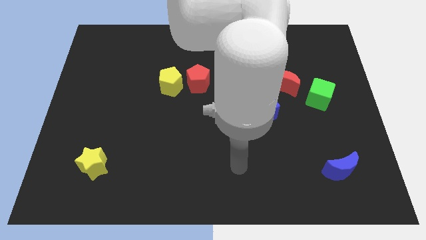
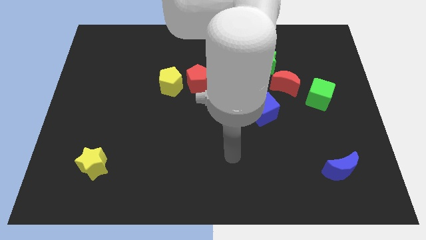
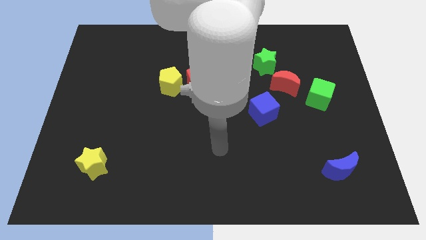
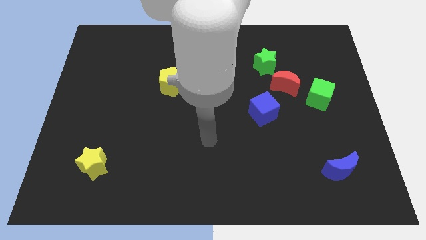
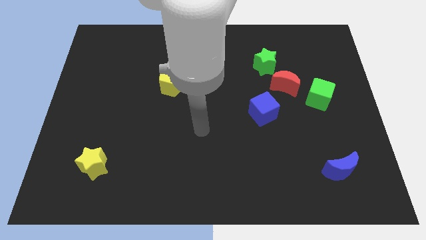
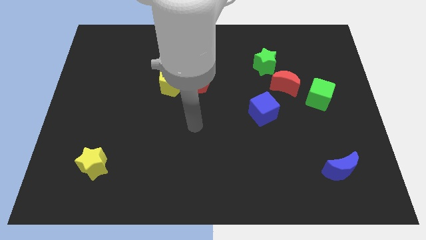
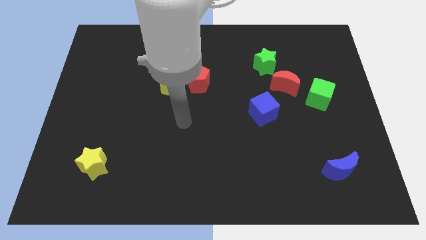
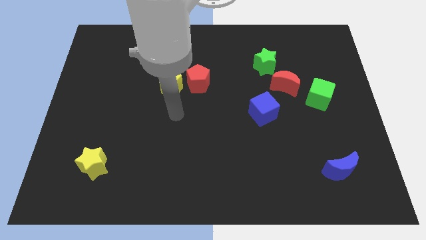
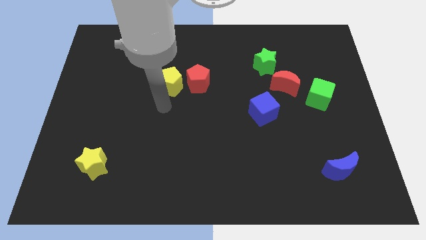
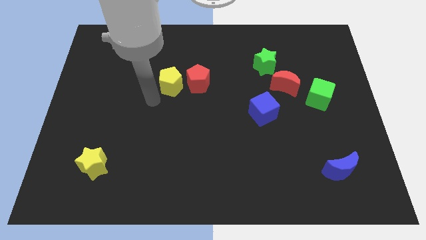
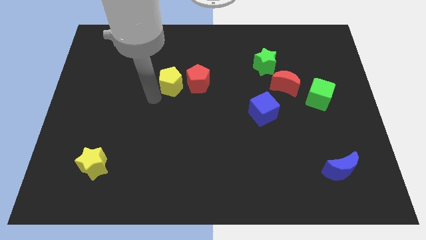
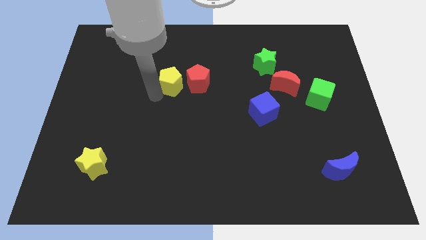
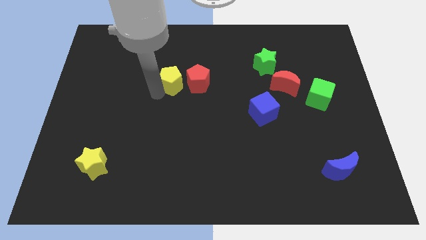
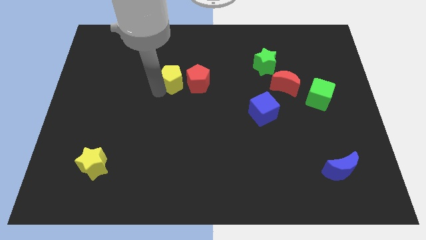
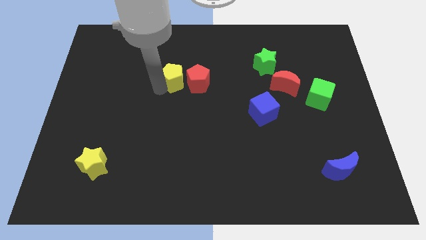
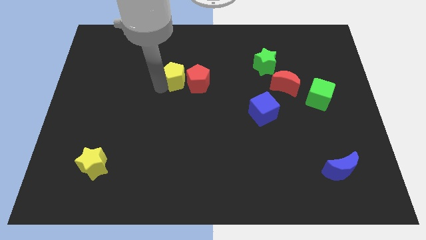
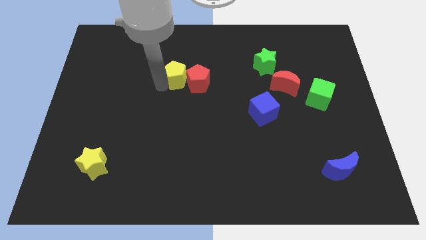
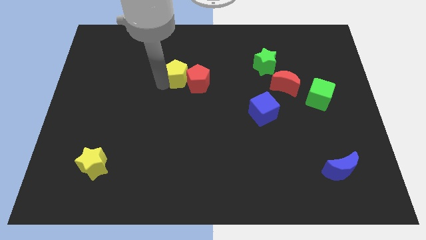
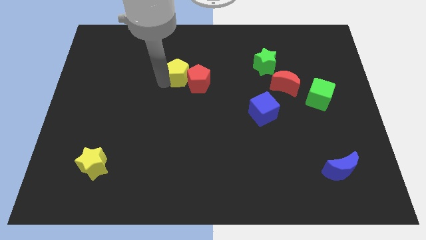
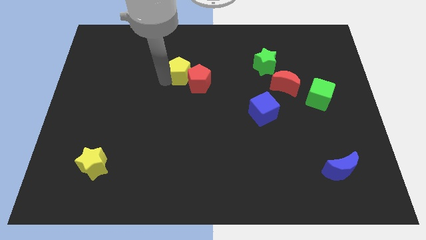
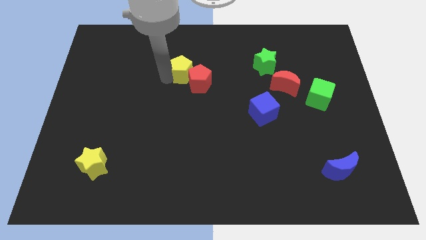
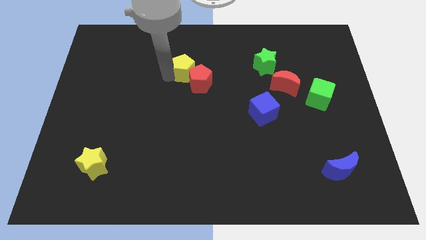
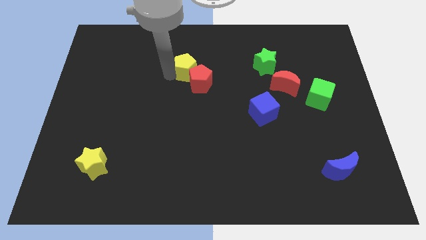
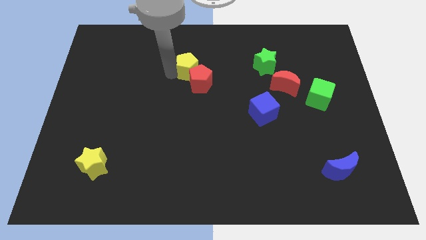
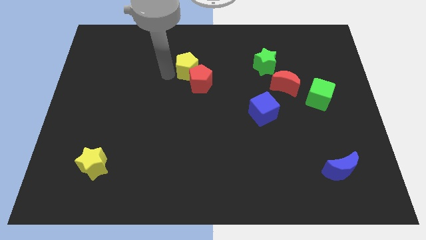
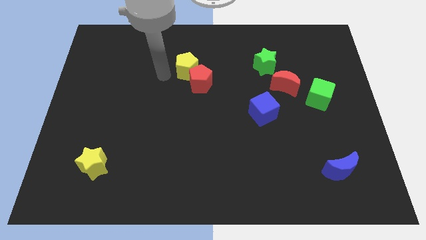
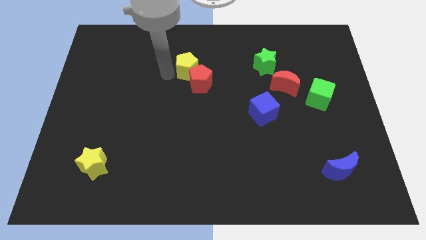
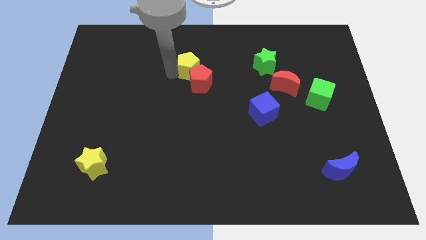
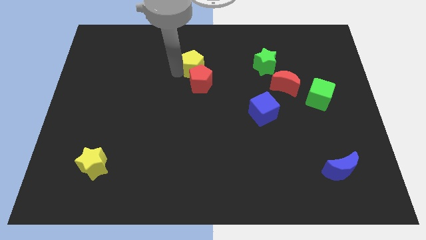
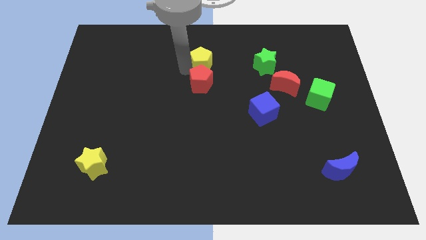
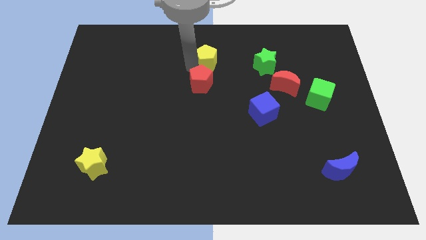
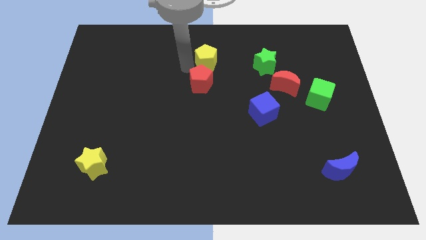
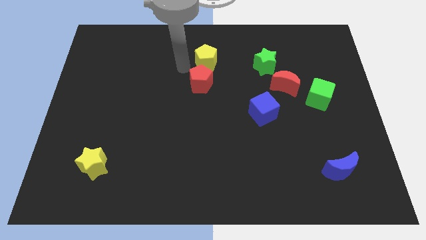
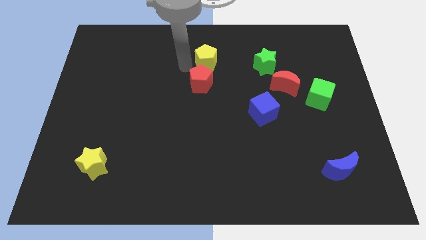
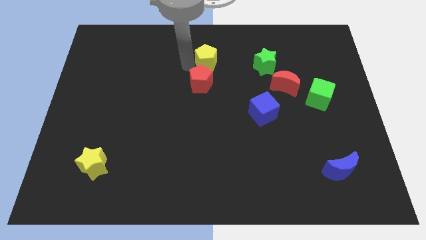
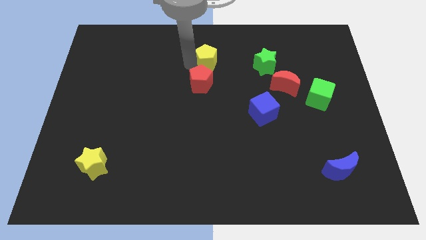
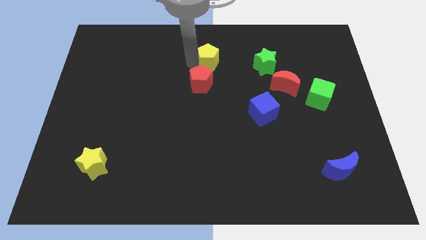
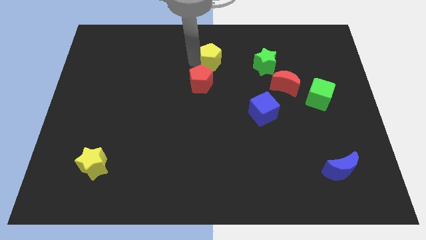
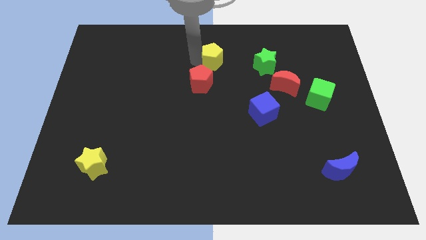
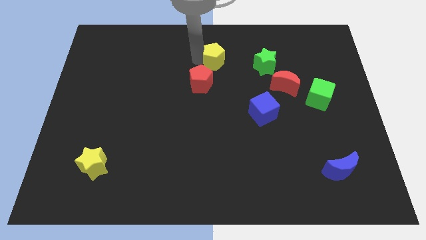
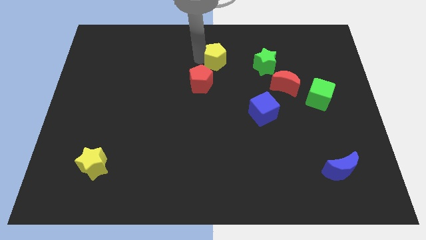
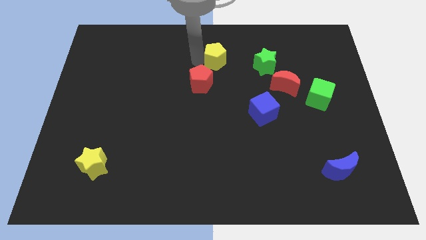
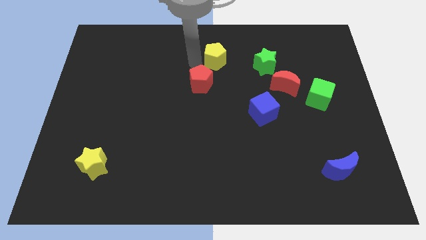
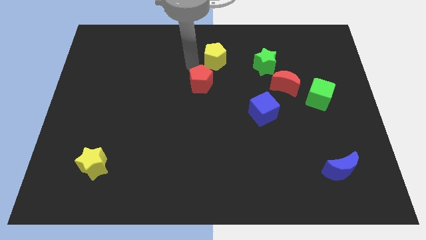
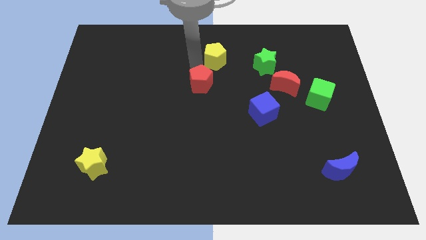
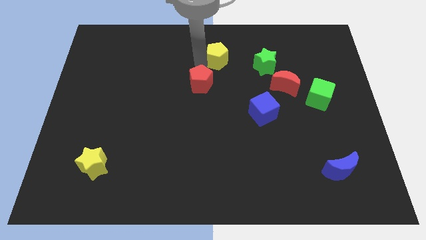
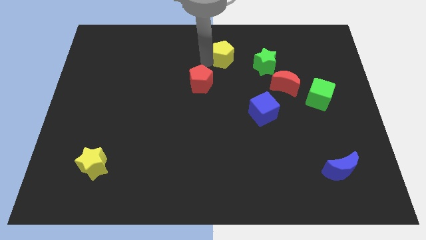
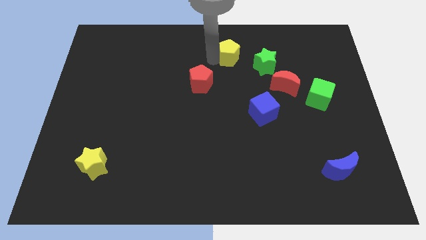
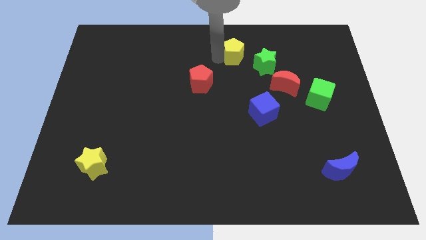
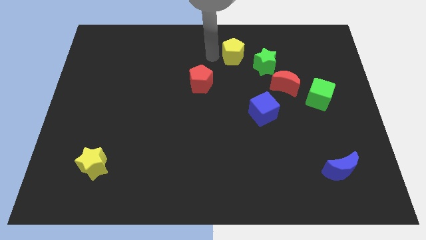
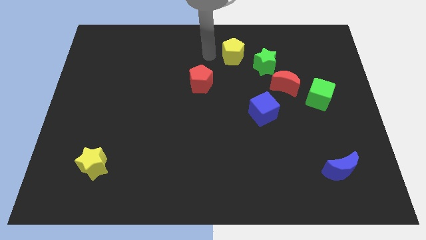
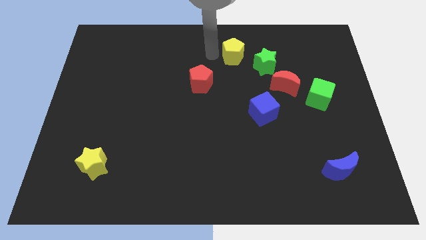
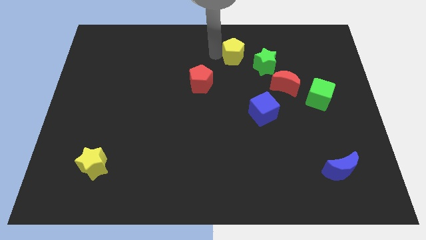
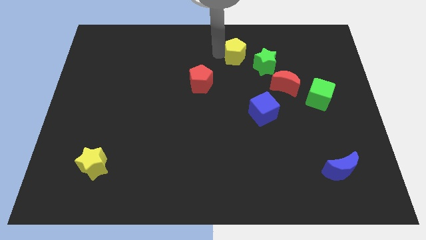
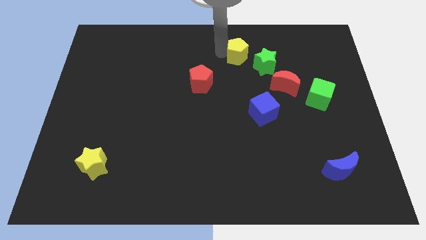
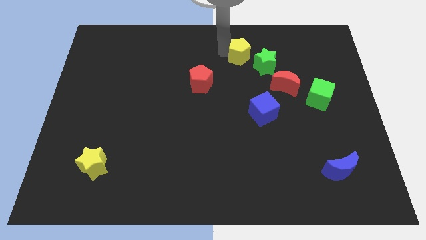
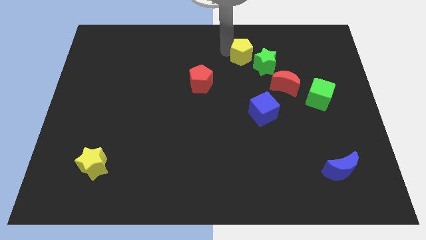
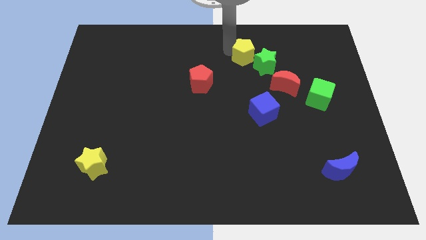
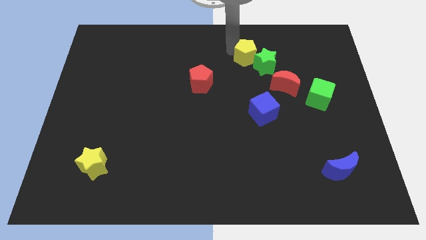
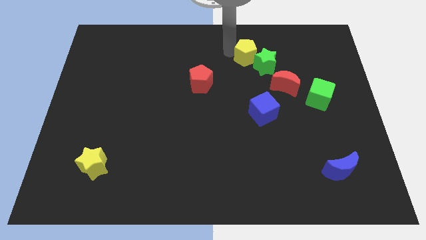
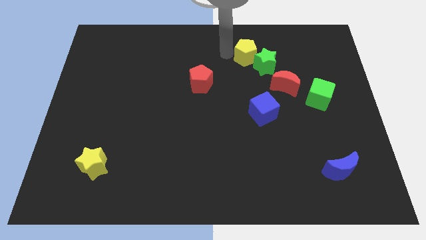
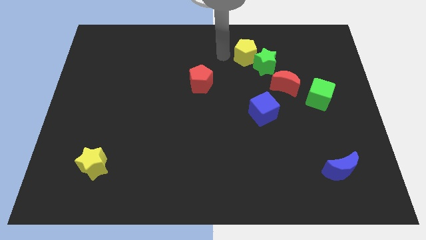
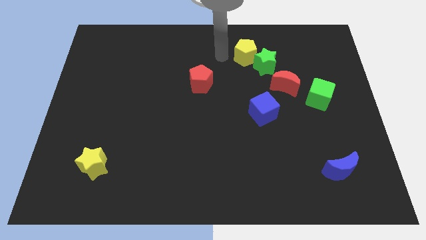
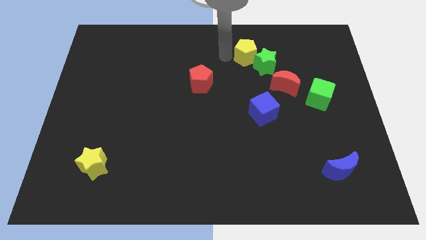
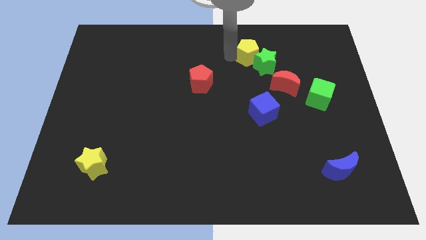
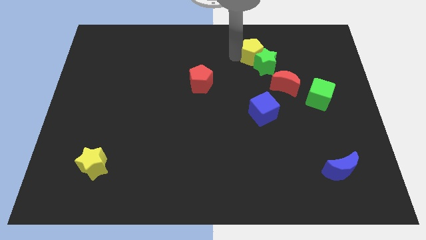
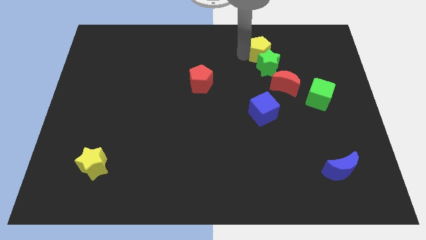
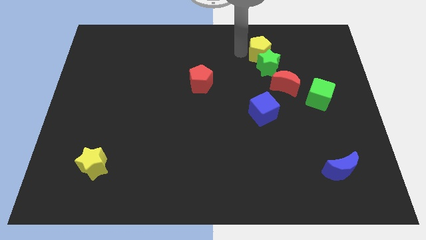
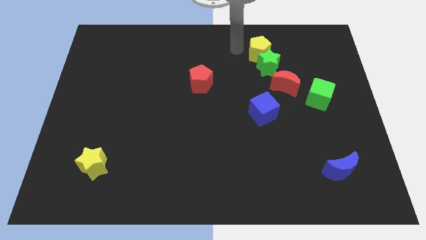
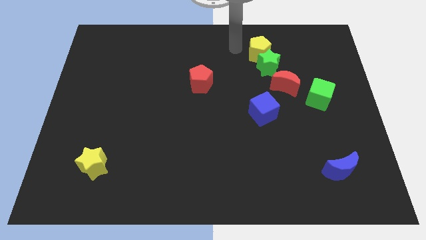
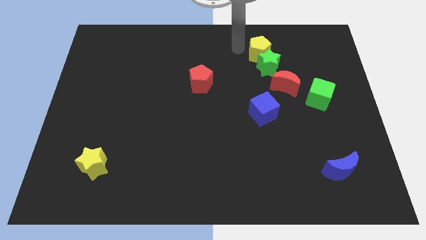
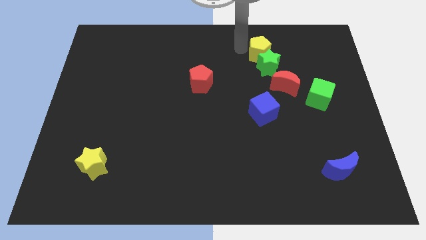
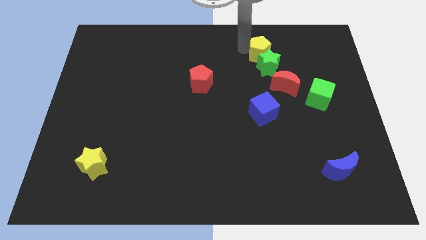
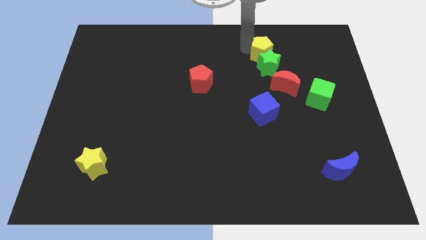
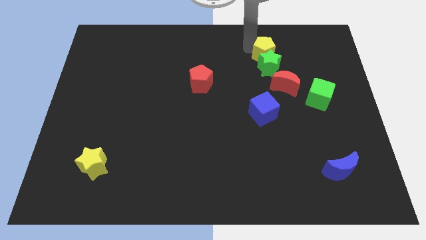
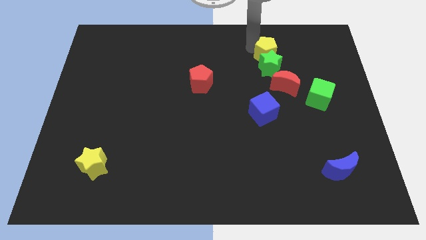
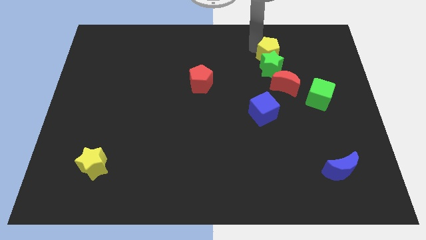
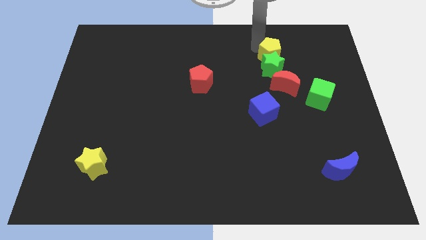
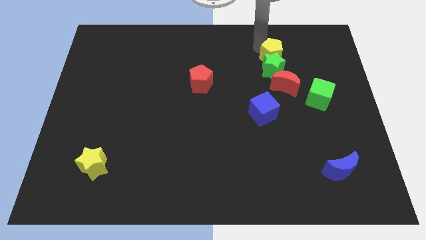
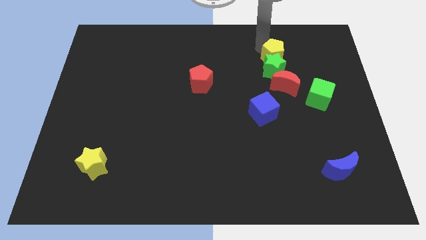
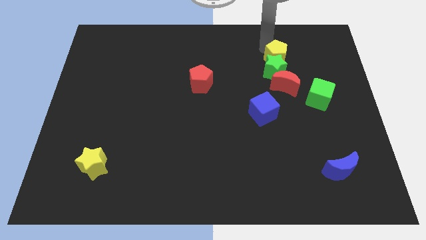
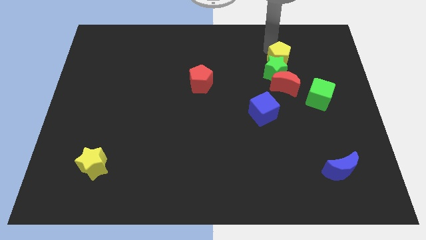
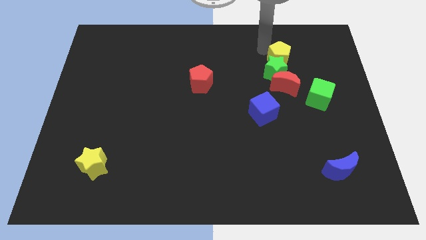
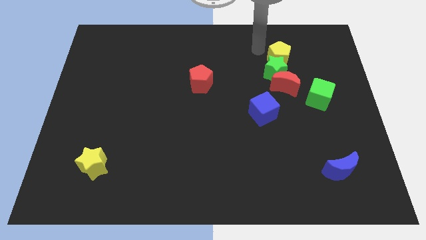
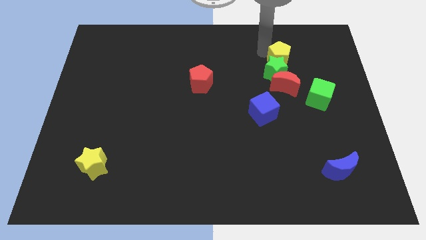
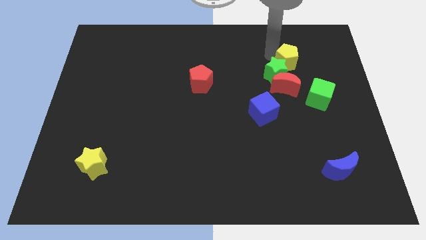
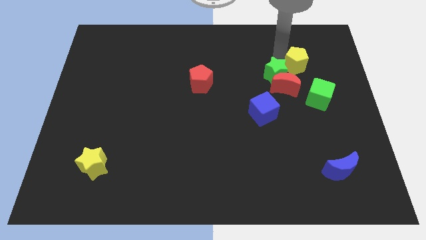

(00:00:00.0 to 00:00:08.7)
slide the yellow pentagon to the right of the green star
